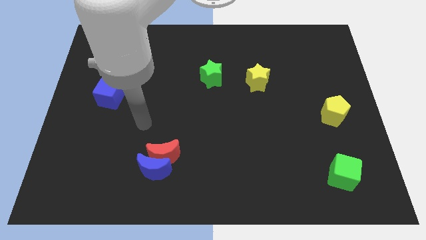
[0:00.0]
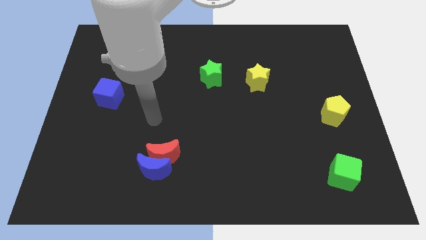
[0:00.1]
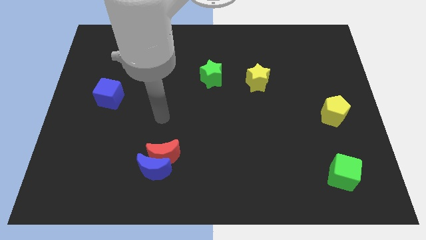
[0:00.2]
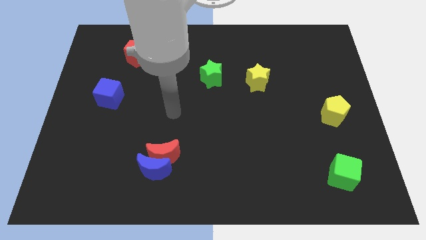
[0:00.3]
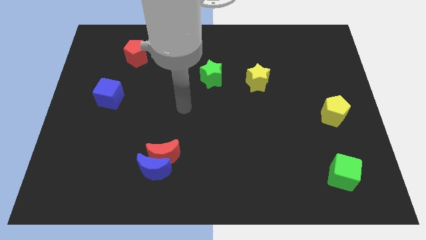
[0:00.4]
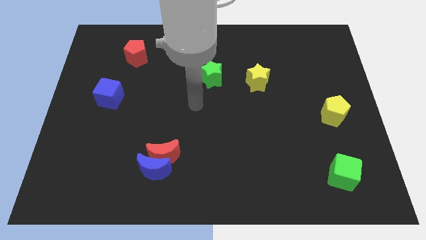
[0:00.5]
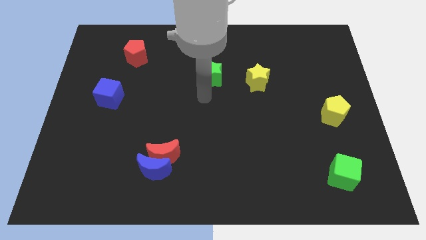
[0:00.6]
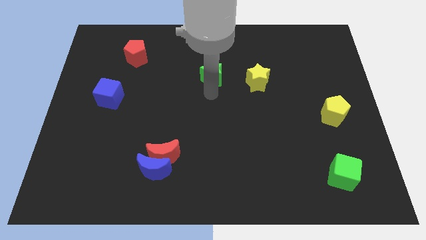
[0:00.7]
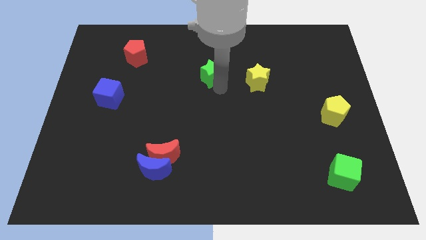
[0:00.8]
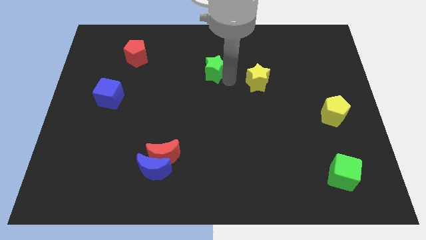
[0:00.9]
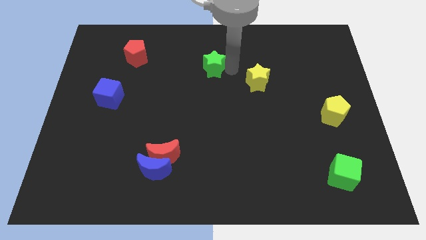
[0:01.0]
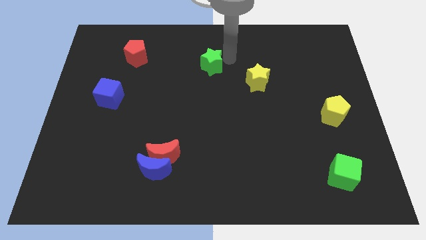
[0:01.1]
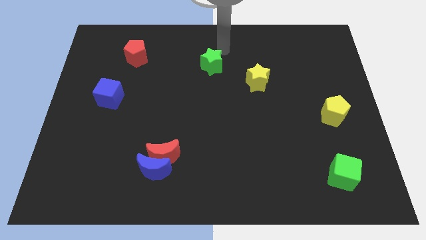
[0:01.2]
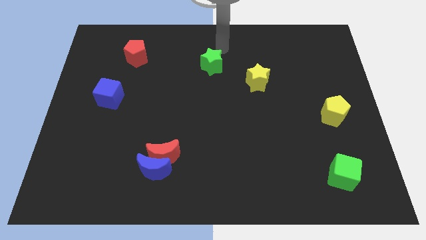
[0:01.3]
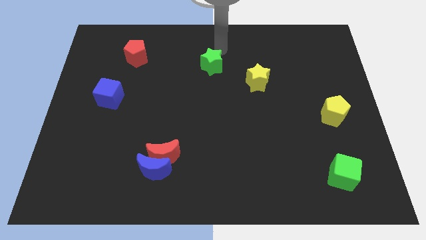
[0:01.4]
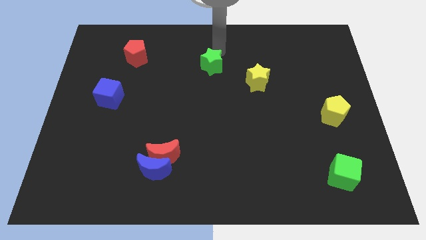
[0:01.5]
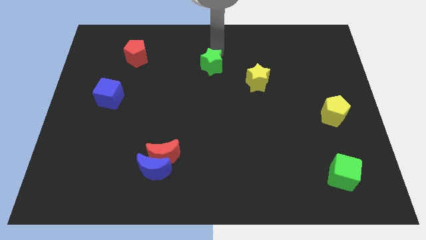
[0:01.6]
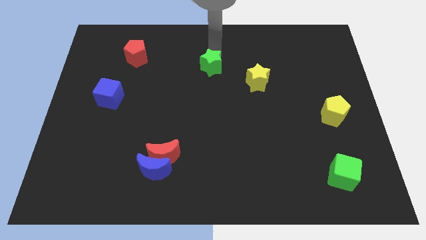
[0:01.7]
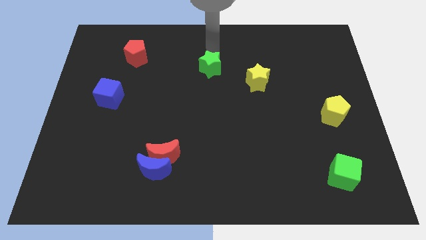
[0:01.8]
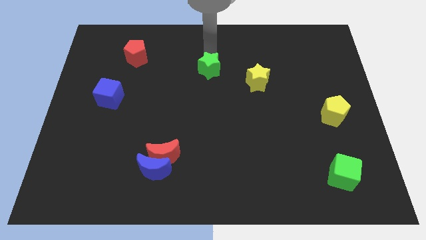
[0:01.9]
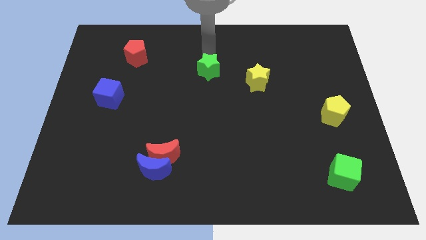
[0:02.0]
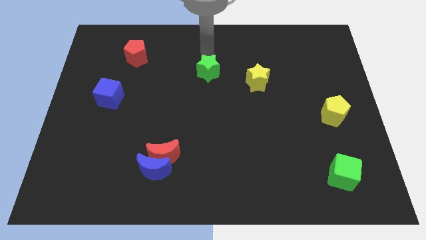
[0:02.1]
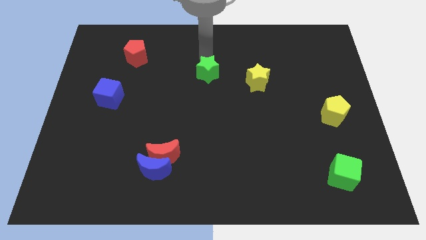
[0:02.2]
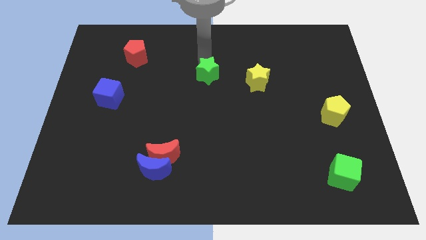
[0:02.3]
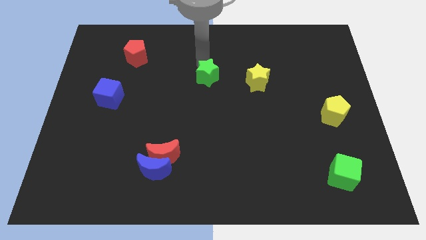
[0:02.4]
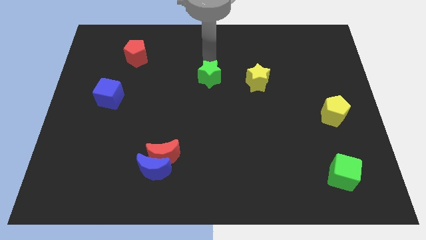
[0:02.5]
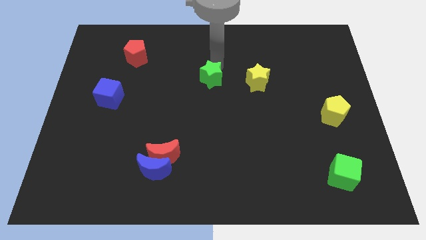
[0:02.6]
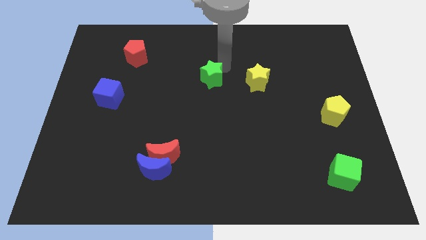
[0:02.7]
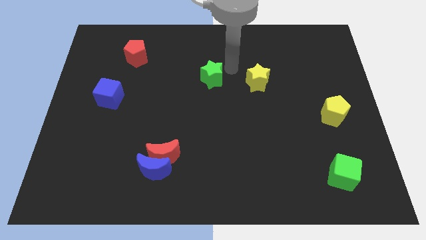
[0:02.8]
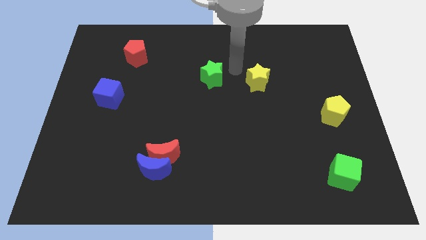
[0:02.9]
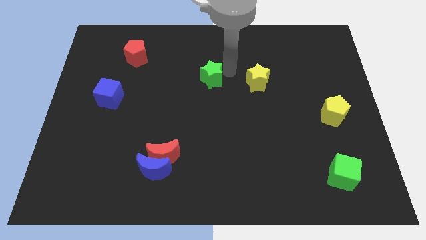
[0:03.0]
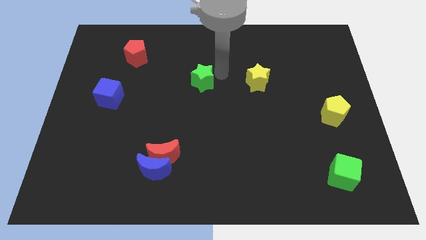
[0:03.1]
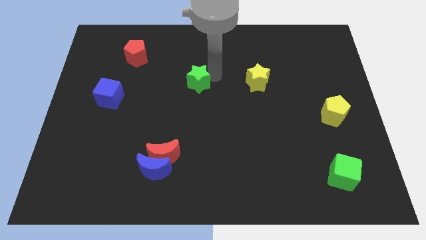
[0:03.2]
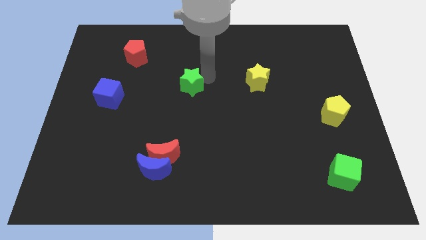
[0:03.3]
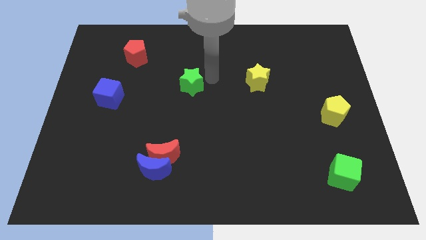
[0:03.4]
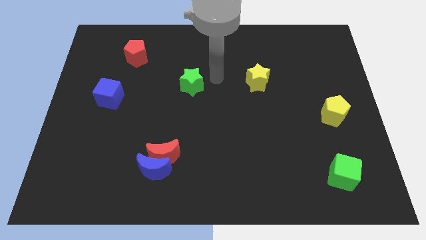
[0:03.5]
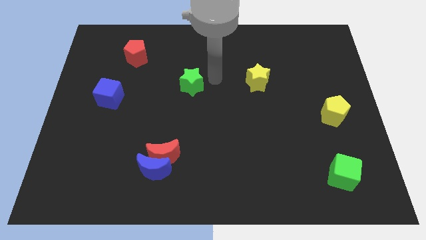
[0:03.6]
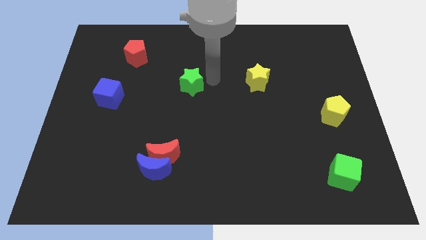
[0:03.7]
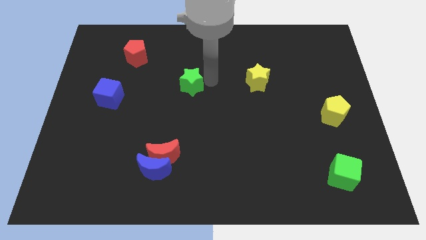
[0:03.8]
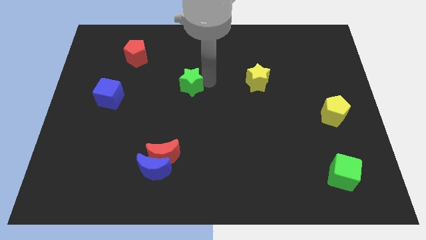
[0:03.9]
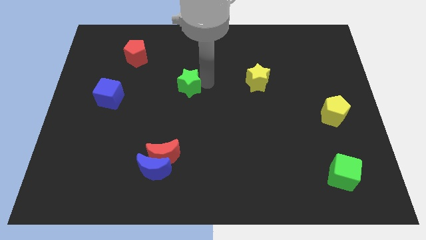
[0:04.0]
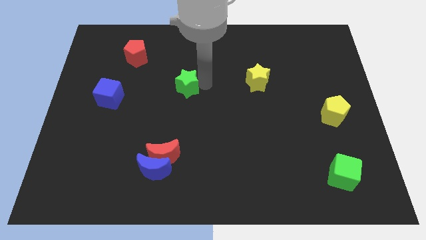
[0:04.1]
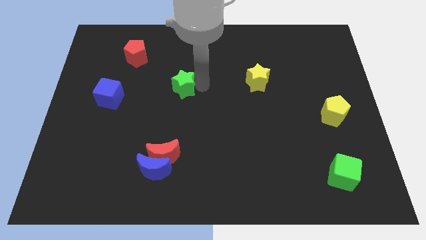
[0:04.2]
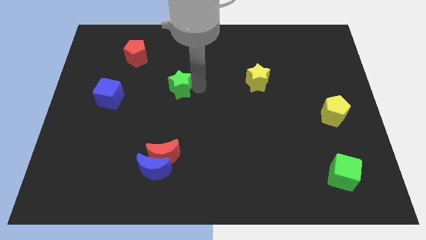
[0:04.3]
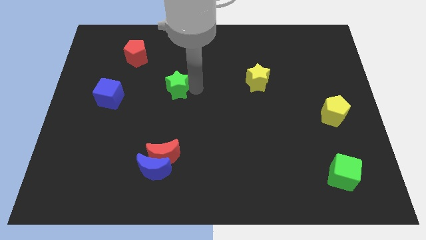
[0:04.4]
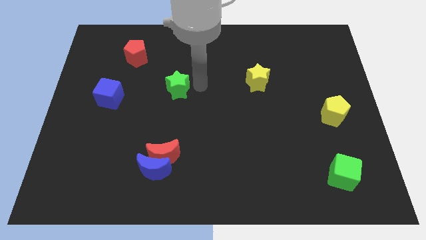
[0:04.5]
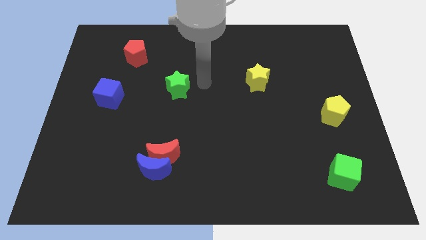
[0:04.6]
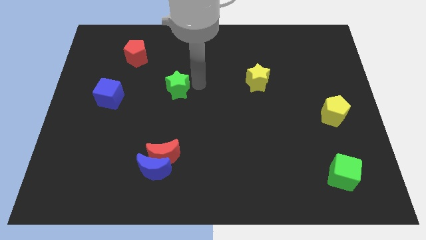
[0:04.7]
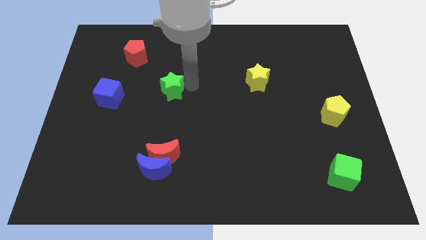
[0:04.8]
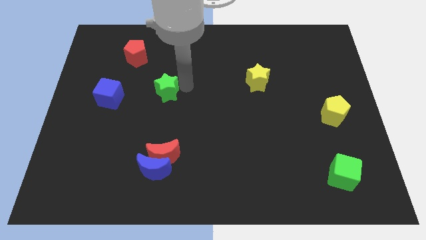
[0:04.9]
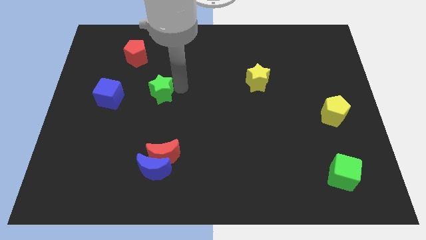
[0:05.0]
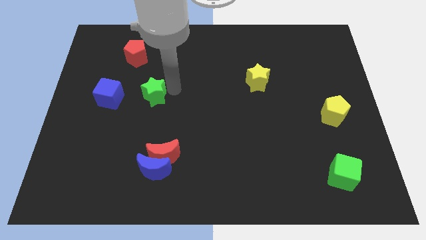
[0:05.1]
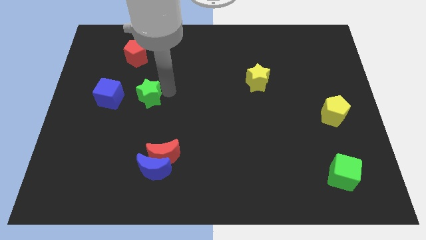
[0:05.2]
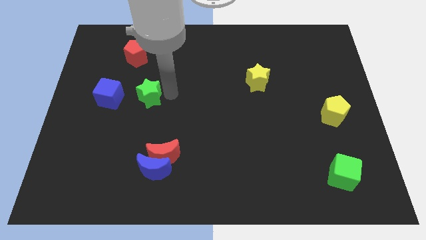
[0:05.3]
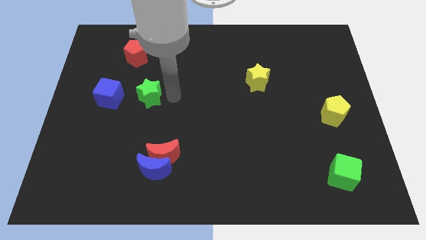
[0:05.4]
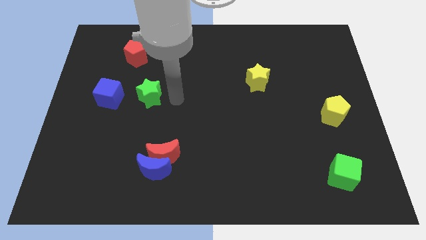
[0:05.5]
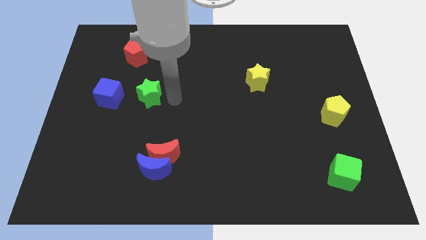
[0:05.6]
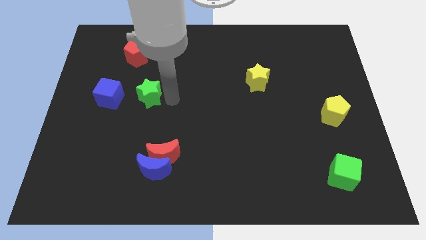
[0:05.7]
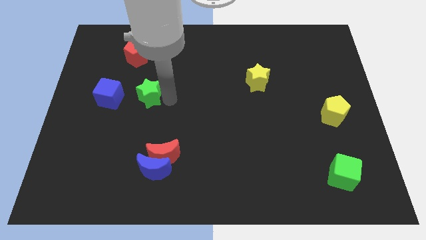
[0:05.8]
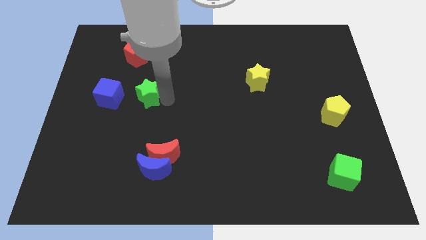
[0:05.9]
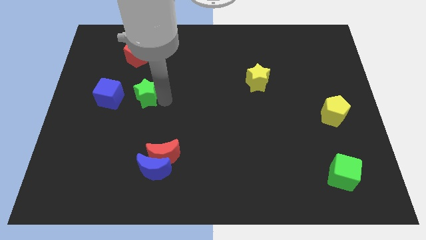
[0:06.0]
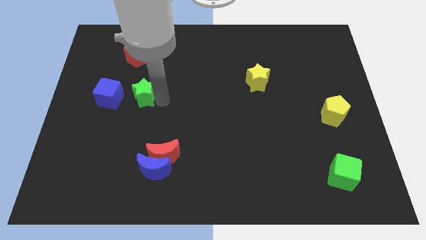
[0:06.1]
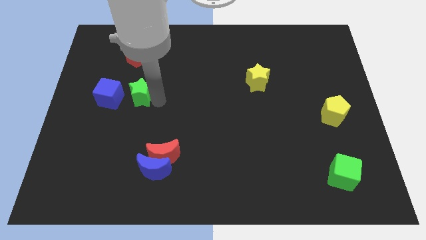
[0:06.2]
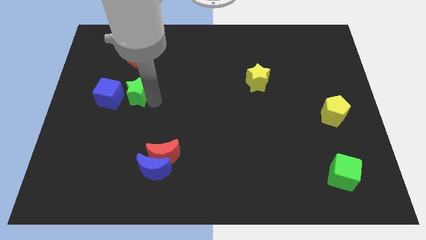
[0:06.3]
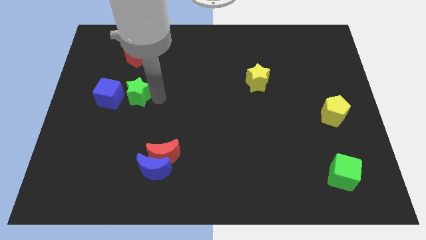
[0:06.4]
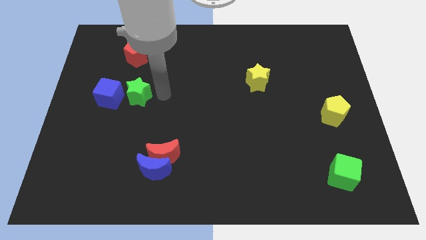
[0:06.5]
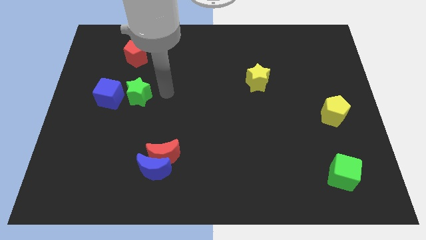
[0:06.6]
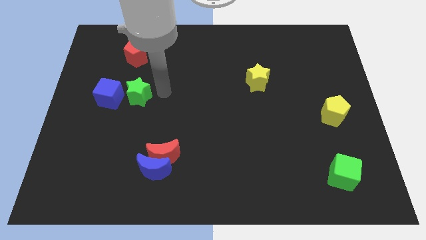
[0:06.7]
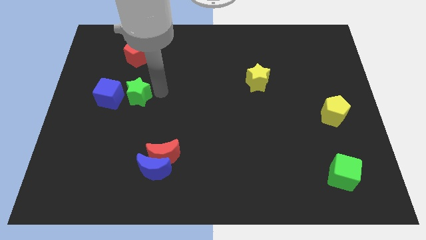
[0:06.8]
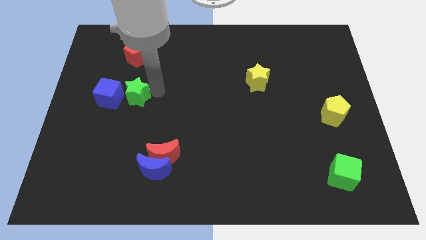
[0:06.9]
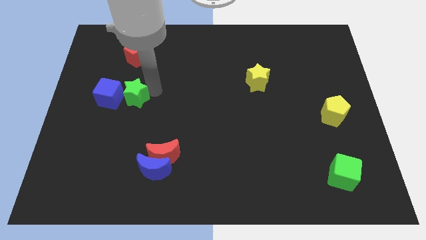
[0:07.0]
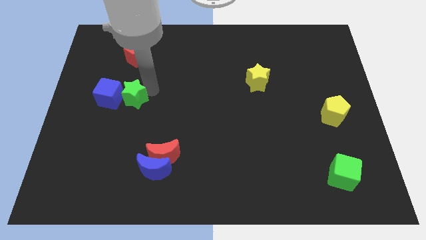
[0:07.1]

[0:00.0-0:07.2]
move the green star towards the blue cube
